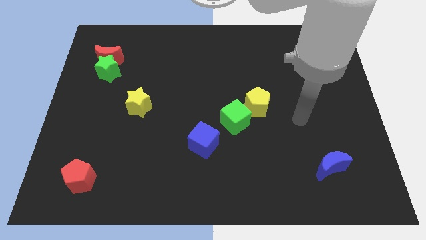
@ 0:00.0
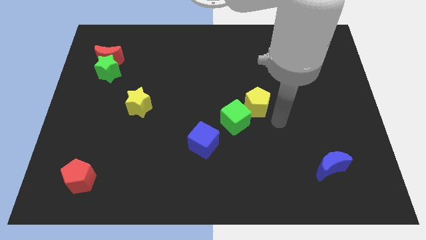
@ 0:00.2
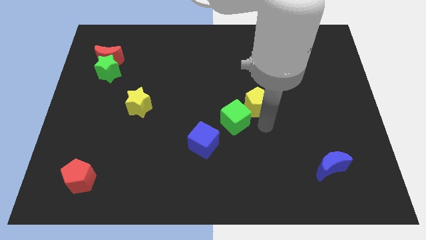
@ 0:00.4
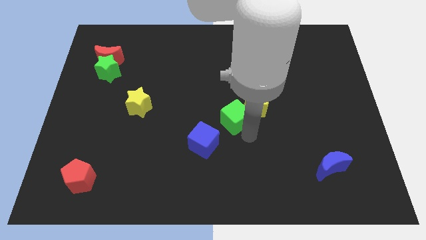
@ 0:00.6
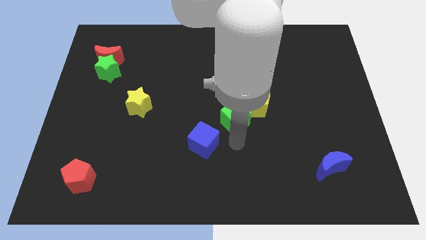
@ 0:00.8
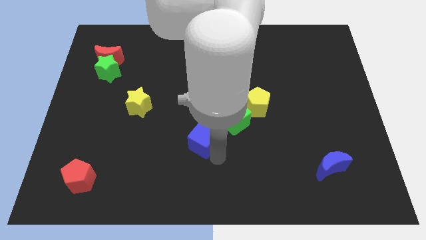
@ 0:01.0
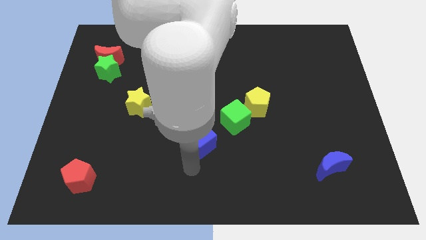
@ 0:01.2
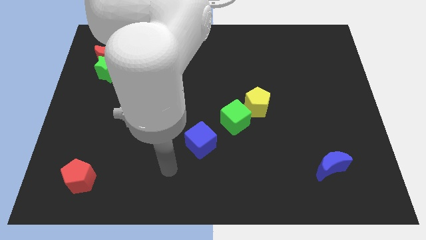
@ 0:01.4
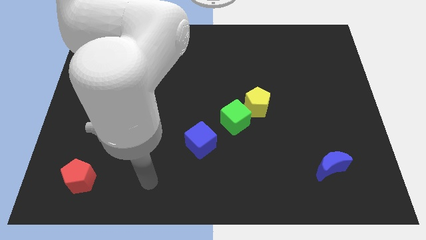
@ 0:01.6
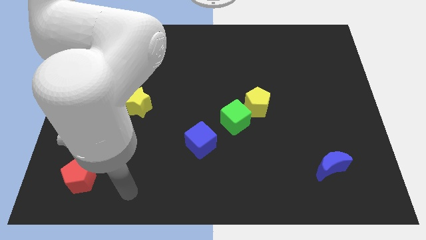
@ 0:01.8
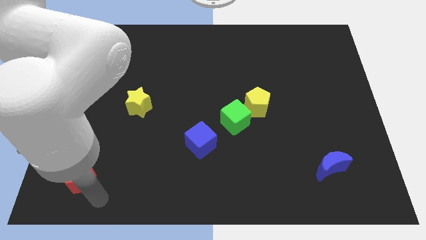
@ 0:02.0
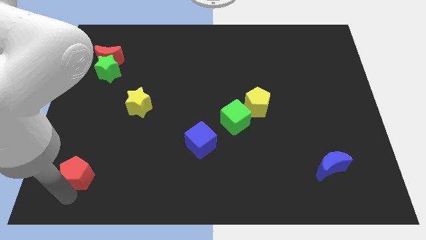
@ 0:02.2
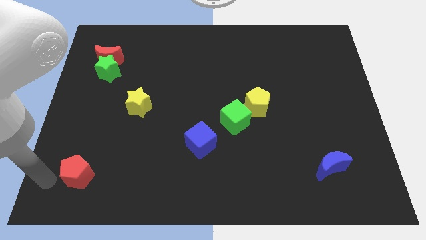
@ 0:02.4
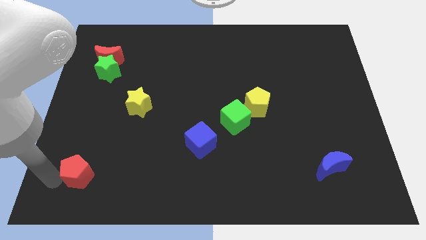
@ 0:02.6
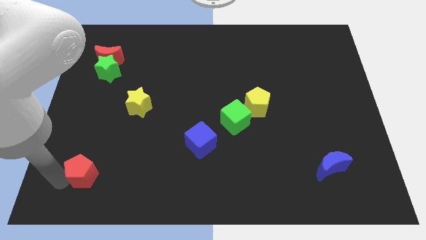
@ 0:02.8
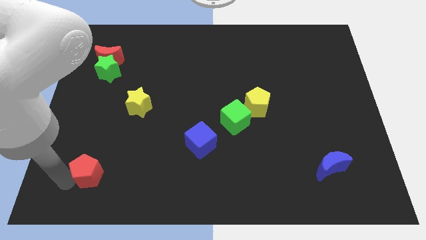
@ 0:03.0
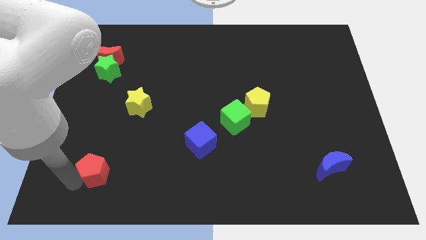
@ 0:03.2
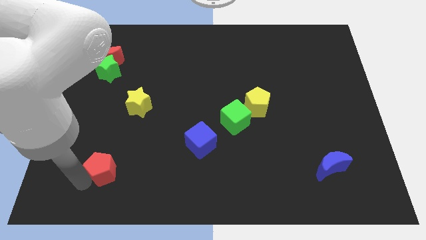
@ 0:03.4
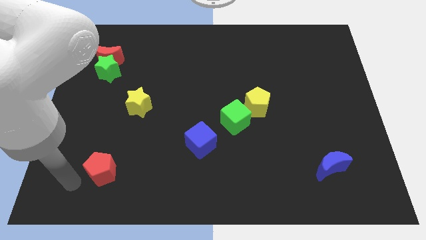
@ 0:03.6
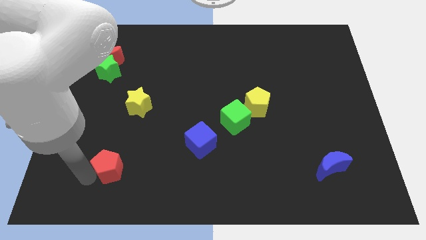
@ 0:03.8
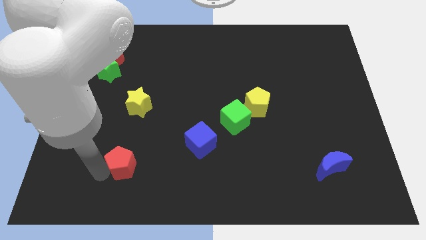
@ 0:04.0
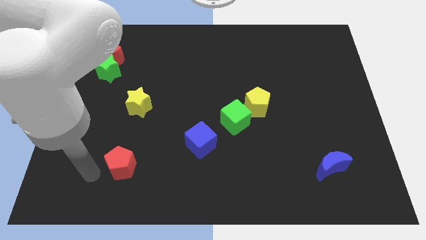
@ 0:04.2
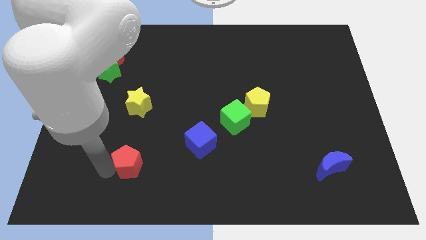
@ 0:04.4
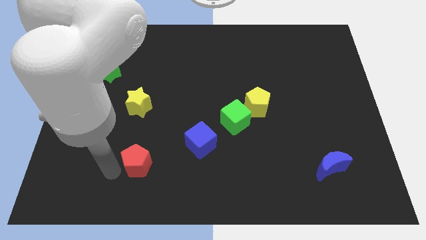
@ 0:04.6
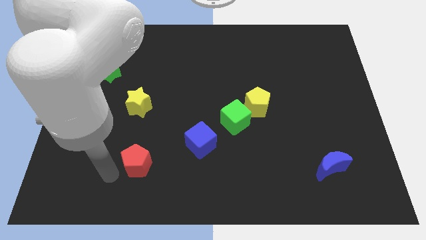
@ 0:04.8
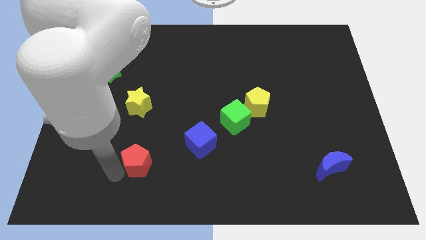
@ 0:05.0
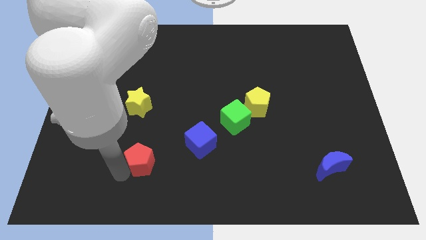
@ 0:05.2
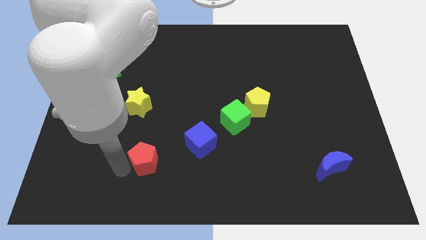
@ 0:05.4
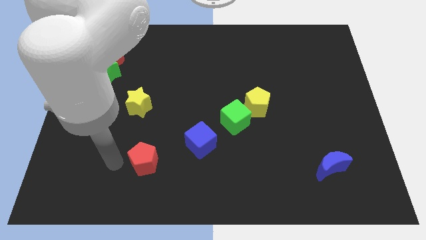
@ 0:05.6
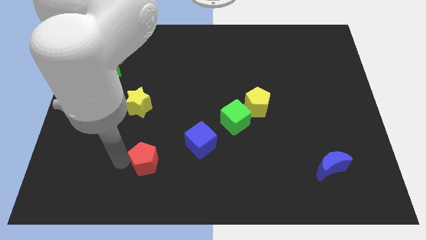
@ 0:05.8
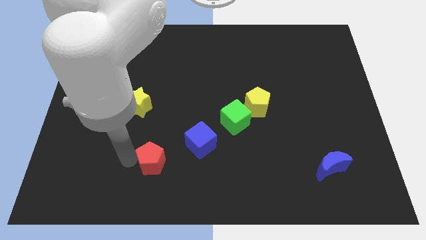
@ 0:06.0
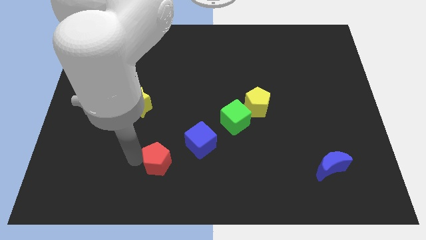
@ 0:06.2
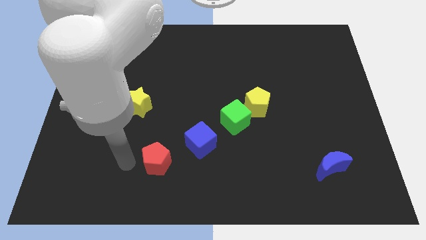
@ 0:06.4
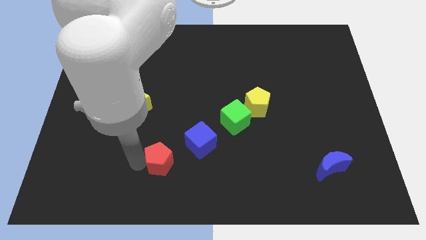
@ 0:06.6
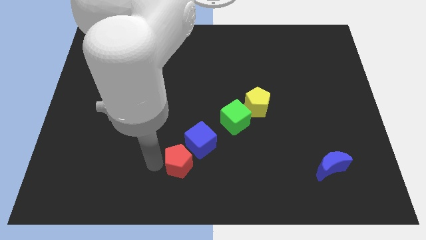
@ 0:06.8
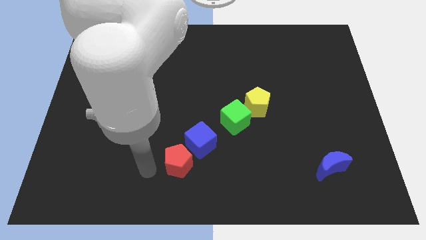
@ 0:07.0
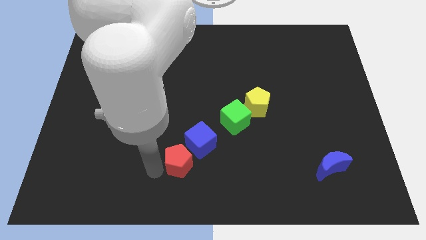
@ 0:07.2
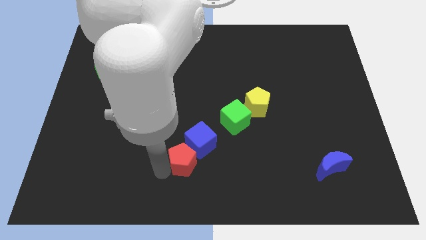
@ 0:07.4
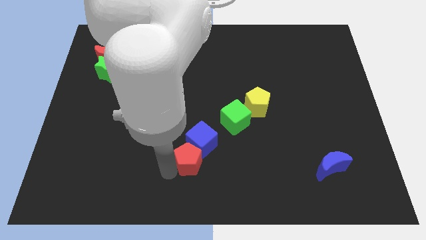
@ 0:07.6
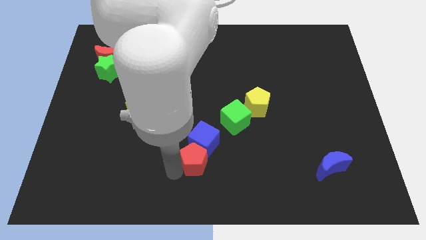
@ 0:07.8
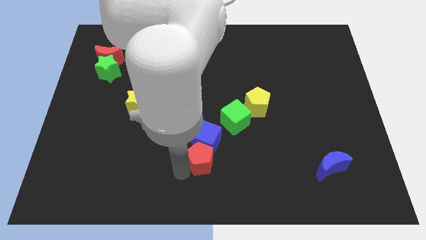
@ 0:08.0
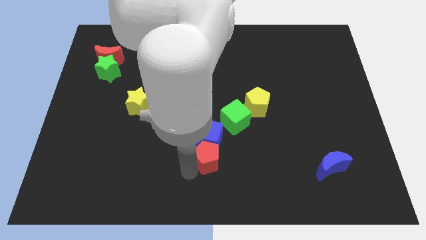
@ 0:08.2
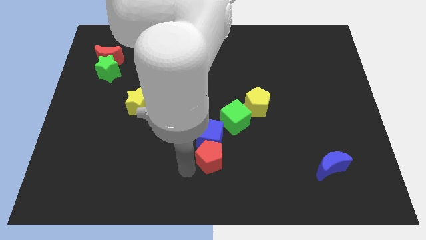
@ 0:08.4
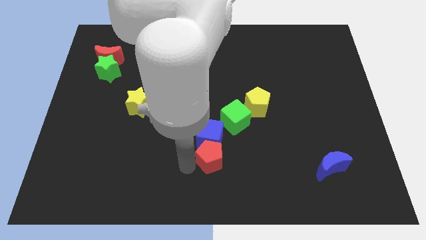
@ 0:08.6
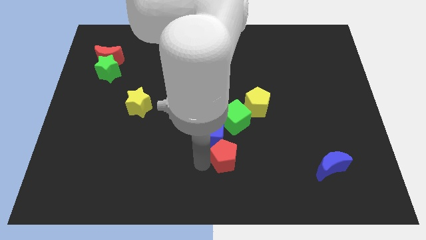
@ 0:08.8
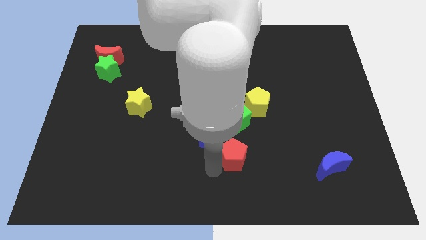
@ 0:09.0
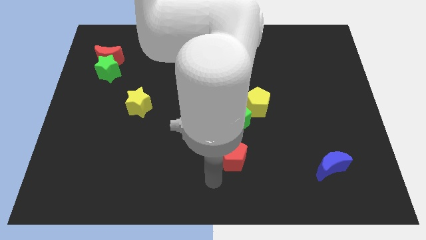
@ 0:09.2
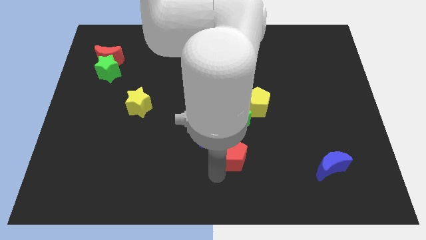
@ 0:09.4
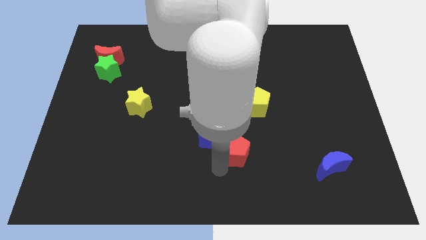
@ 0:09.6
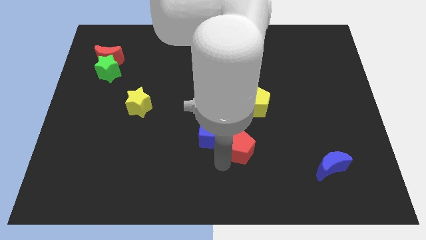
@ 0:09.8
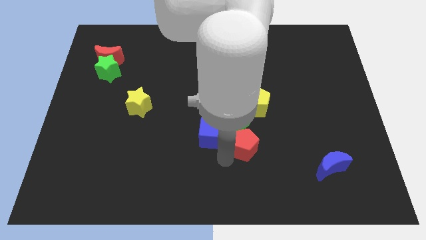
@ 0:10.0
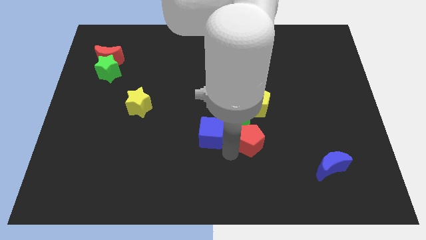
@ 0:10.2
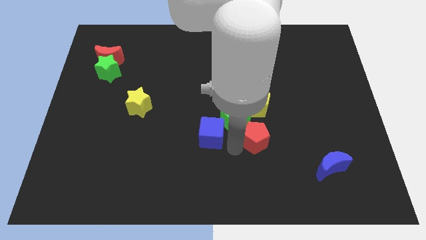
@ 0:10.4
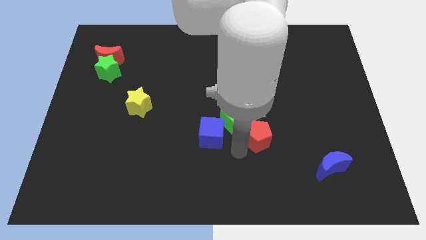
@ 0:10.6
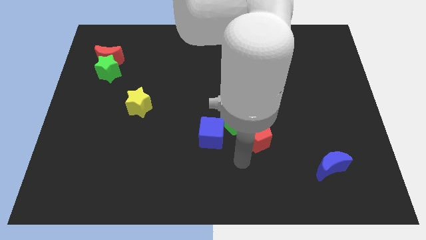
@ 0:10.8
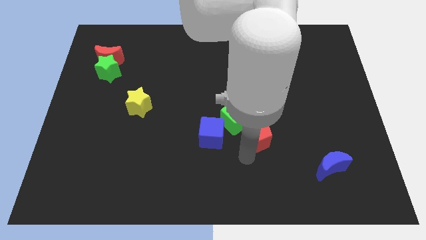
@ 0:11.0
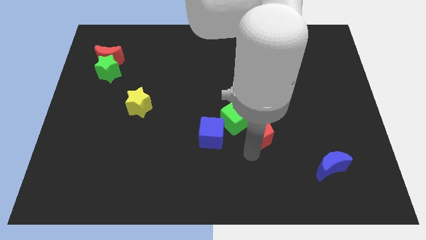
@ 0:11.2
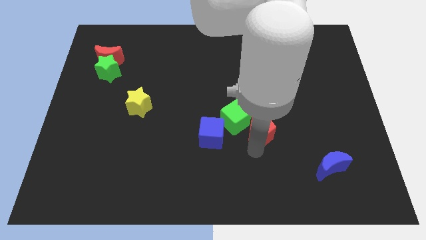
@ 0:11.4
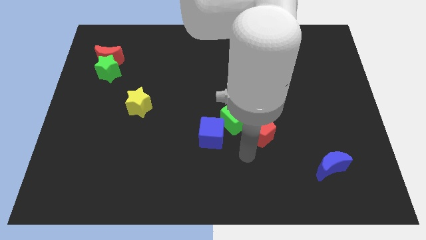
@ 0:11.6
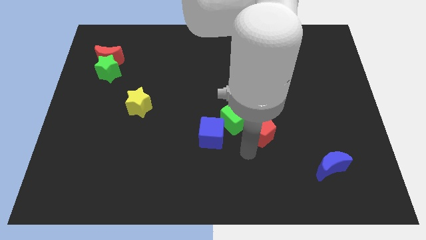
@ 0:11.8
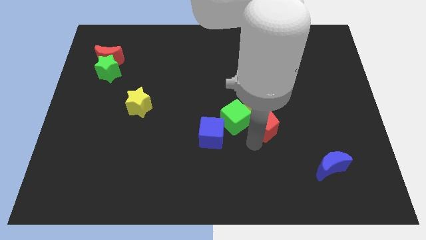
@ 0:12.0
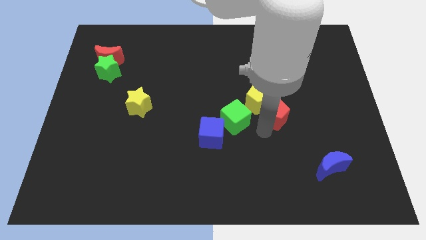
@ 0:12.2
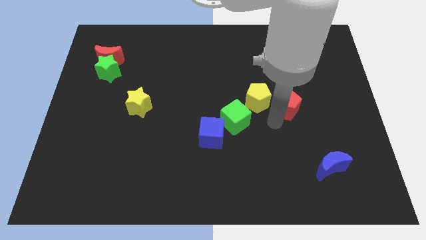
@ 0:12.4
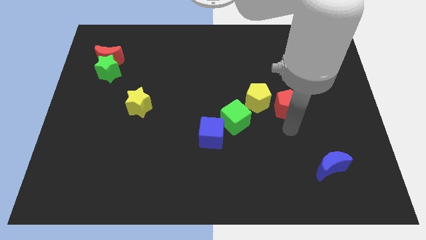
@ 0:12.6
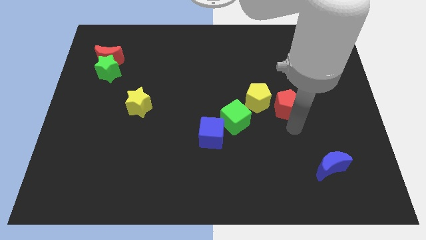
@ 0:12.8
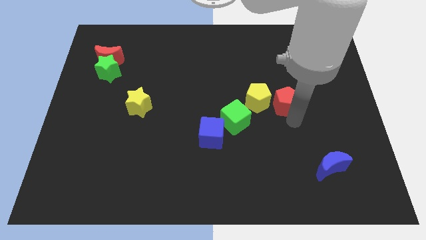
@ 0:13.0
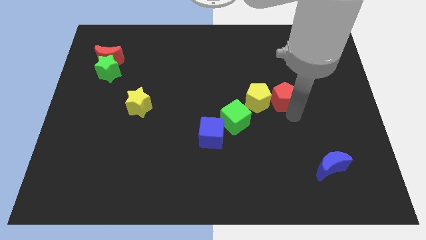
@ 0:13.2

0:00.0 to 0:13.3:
slide the red pentagon to the top right side of the yellow pentagon
